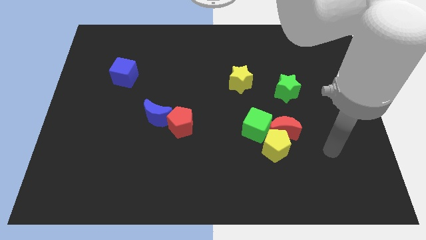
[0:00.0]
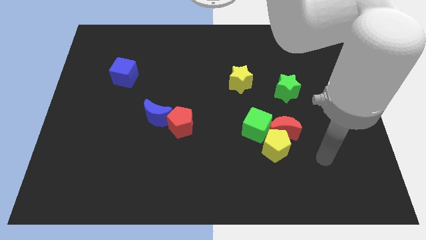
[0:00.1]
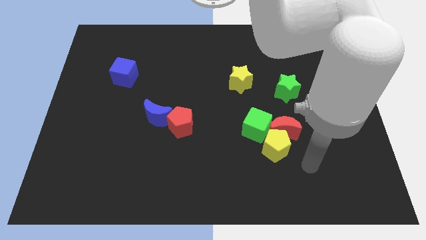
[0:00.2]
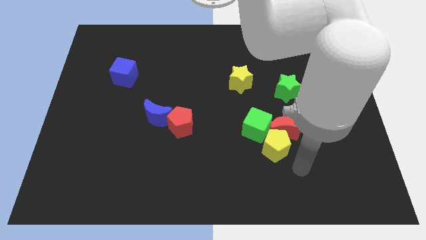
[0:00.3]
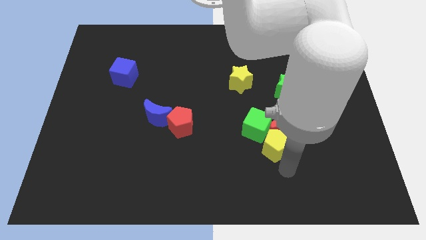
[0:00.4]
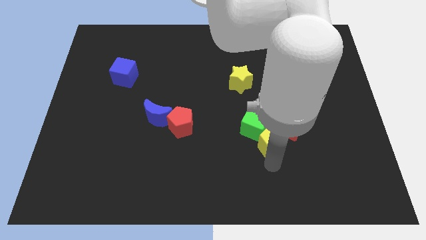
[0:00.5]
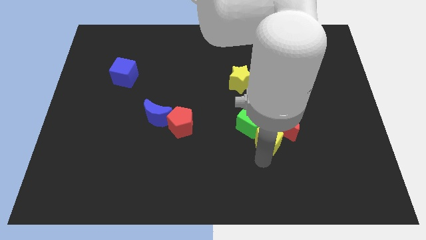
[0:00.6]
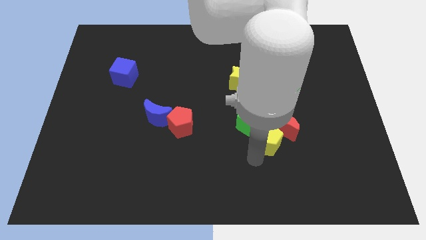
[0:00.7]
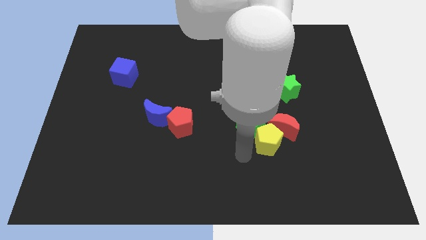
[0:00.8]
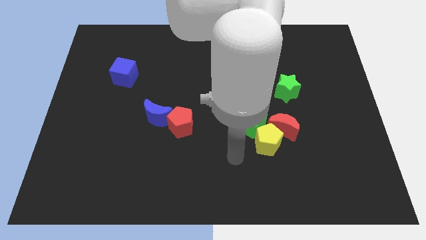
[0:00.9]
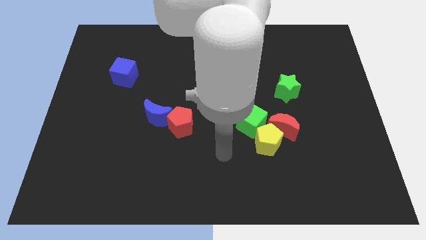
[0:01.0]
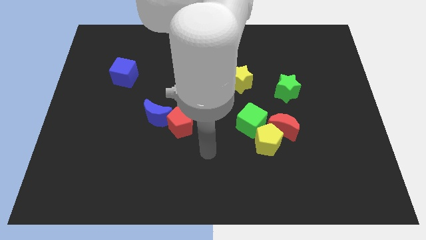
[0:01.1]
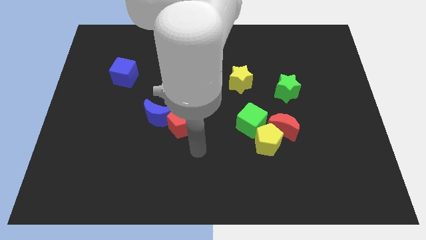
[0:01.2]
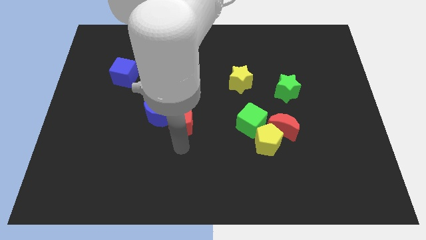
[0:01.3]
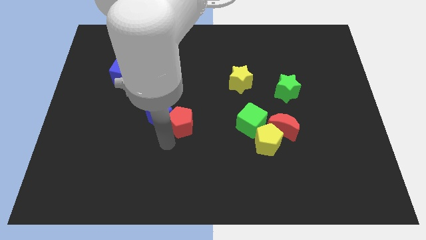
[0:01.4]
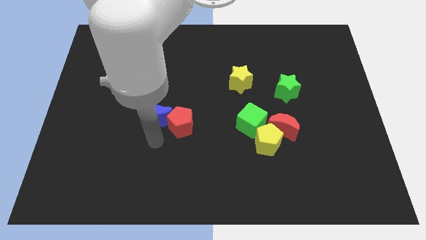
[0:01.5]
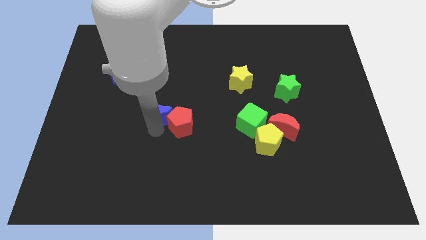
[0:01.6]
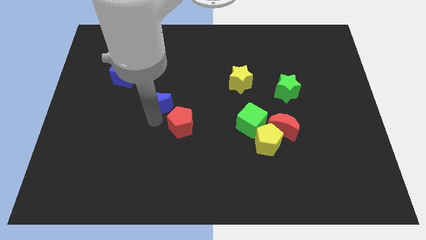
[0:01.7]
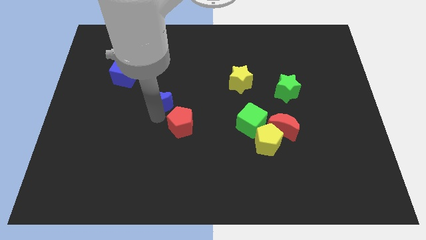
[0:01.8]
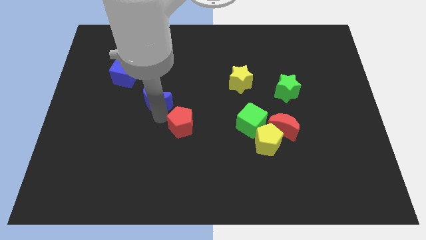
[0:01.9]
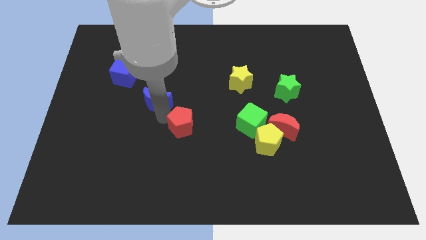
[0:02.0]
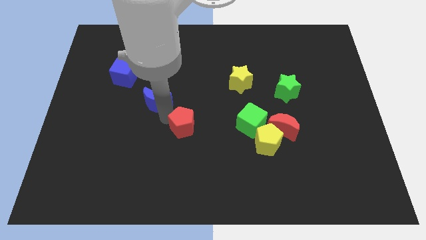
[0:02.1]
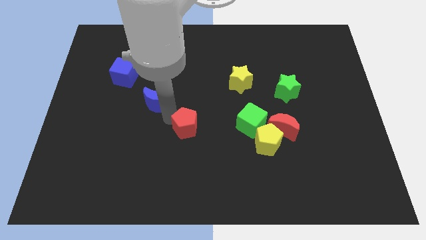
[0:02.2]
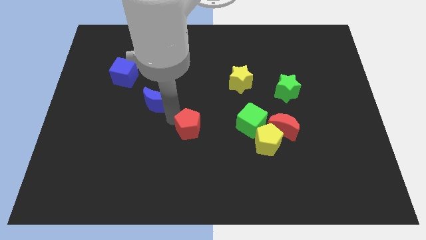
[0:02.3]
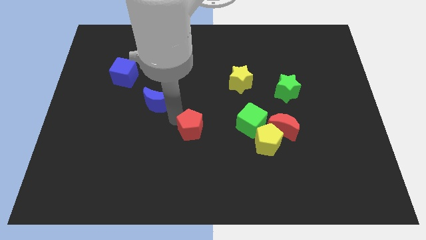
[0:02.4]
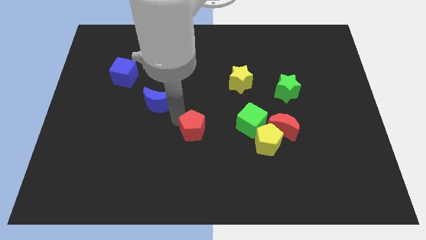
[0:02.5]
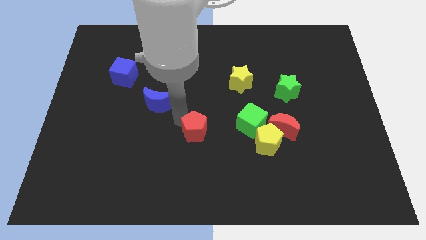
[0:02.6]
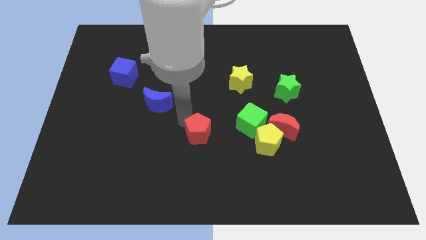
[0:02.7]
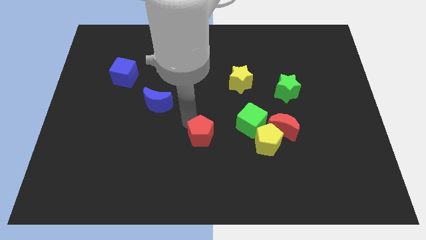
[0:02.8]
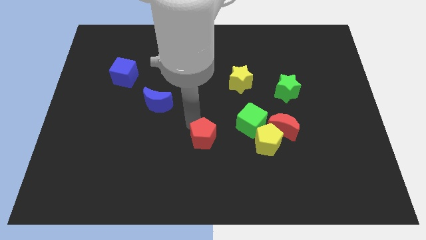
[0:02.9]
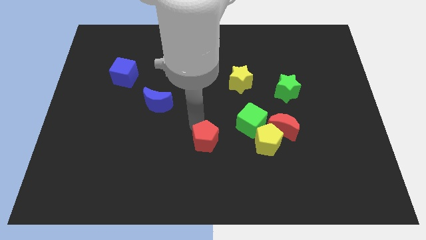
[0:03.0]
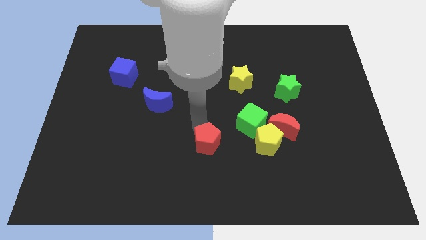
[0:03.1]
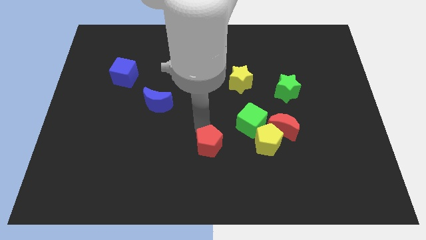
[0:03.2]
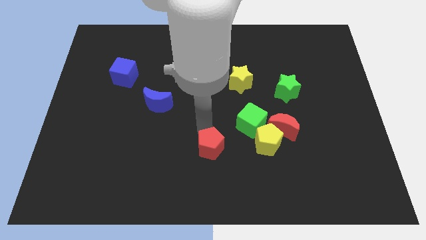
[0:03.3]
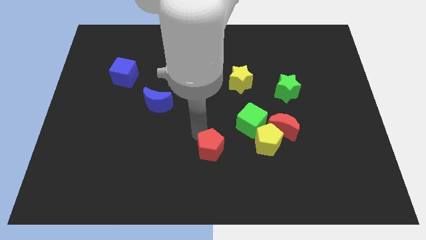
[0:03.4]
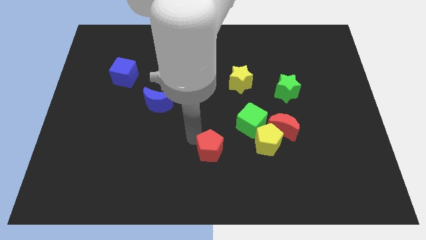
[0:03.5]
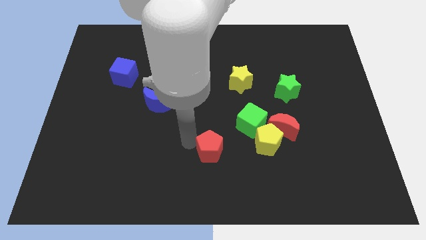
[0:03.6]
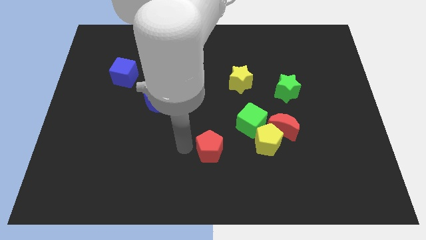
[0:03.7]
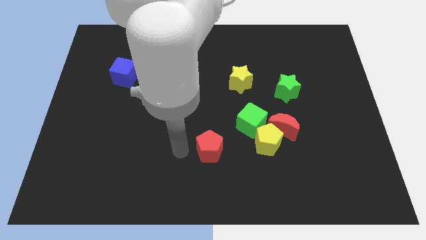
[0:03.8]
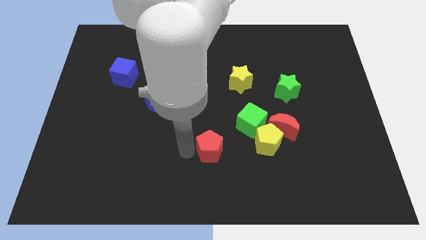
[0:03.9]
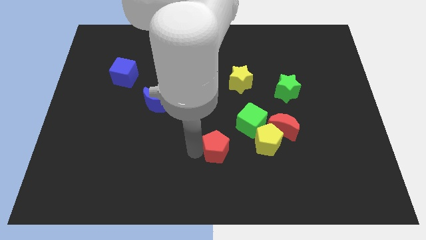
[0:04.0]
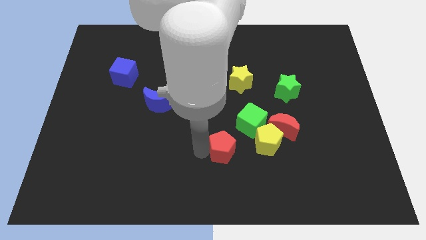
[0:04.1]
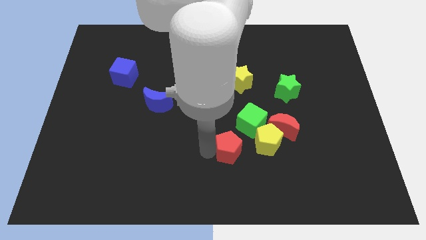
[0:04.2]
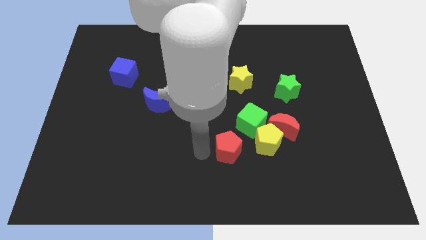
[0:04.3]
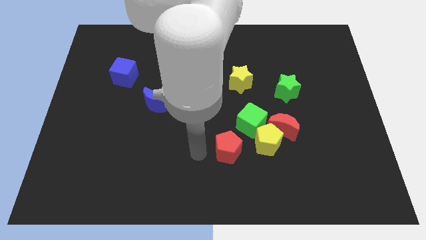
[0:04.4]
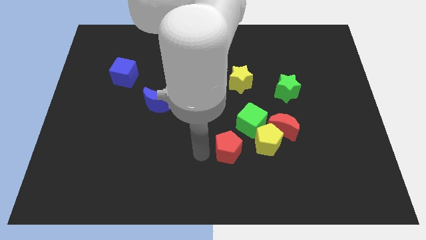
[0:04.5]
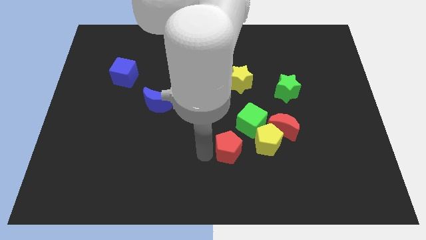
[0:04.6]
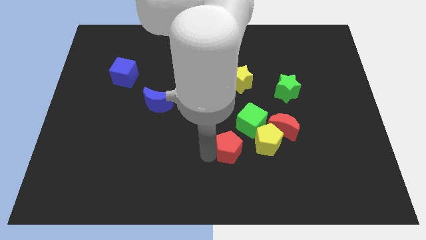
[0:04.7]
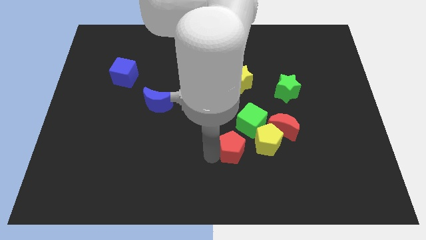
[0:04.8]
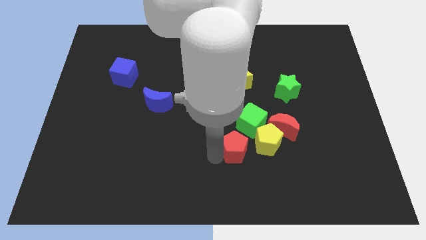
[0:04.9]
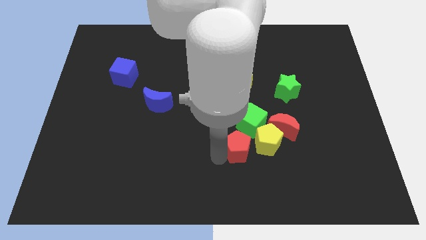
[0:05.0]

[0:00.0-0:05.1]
slide the red pentagon to the bottom left side of the red moon

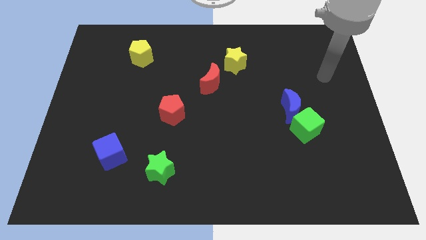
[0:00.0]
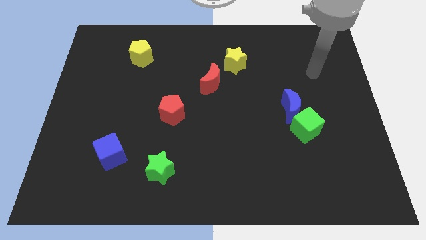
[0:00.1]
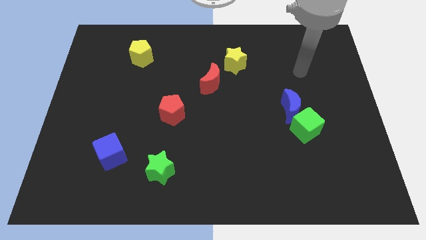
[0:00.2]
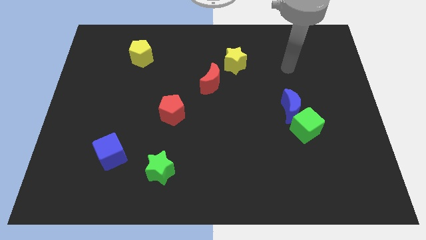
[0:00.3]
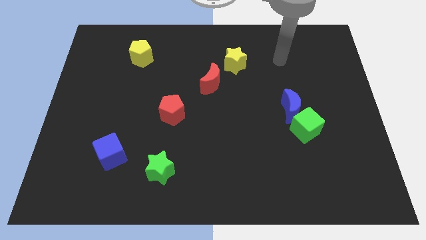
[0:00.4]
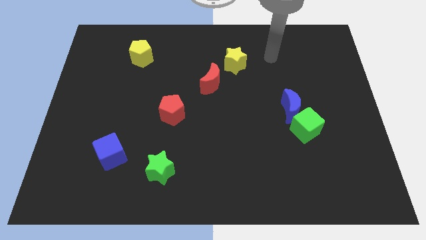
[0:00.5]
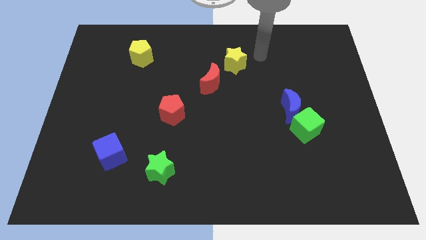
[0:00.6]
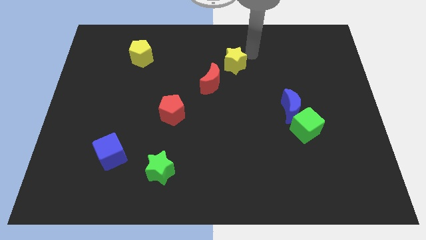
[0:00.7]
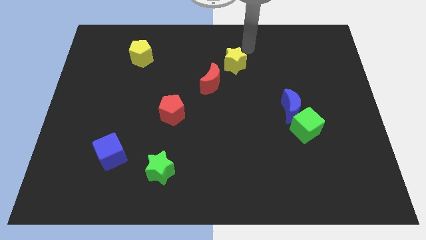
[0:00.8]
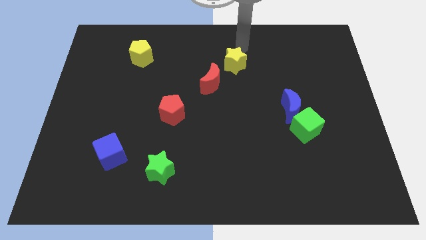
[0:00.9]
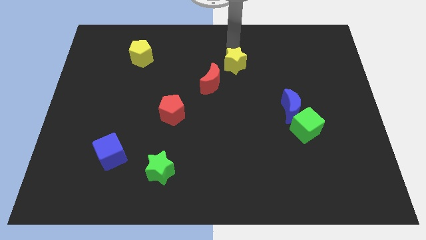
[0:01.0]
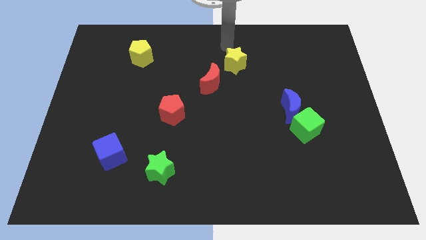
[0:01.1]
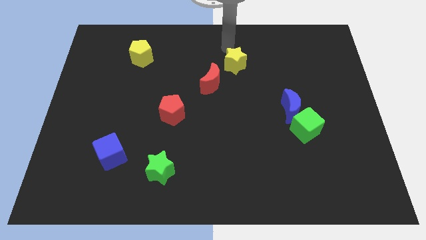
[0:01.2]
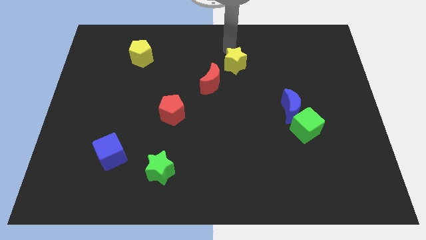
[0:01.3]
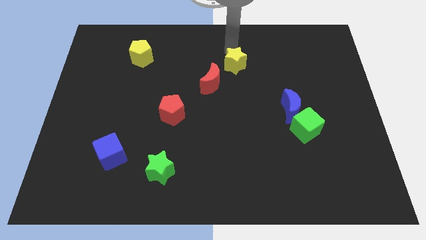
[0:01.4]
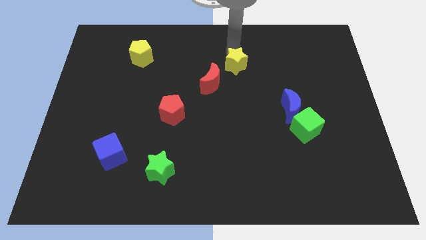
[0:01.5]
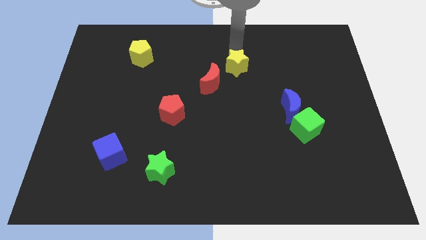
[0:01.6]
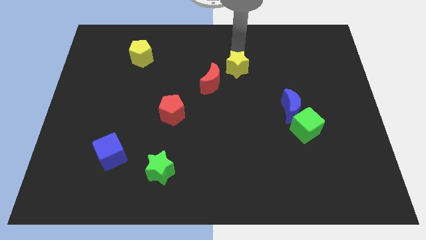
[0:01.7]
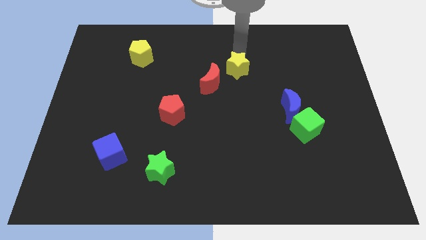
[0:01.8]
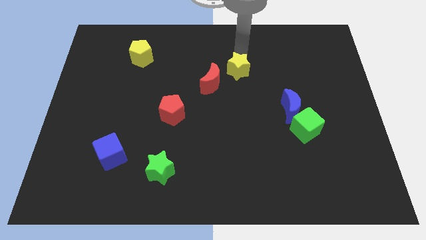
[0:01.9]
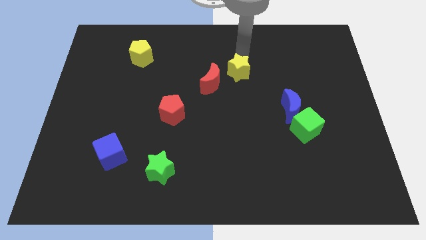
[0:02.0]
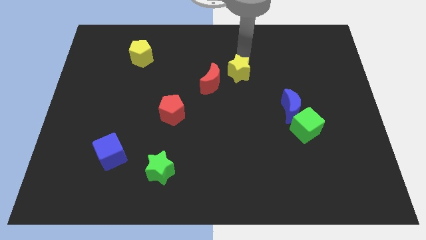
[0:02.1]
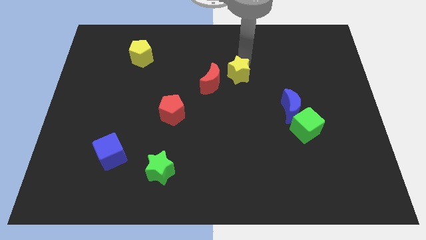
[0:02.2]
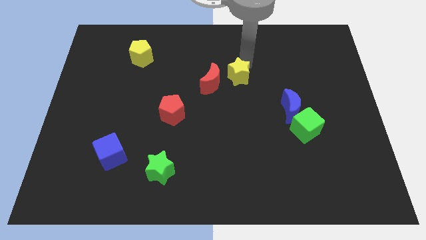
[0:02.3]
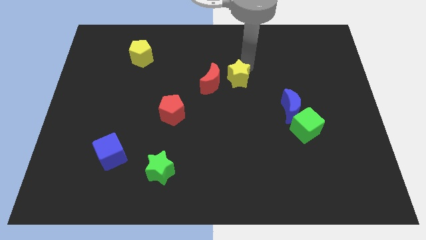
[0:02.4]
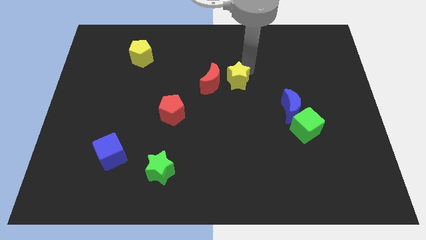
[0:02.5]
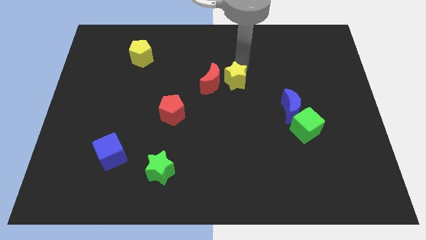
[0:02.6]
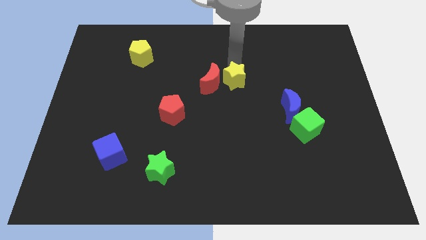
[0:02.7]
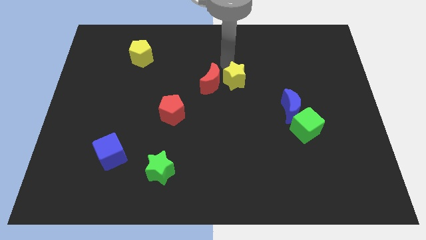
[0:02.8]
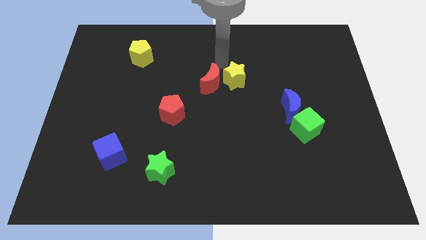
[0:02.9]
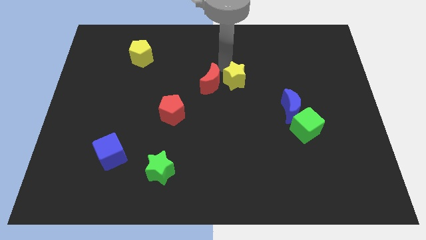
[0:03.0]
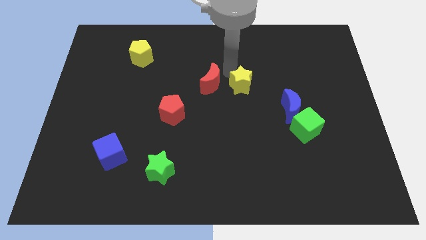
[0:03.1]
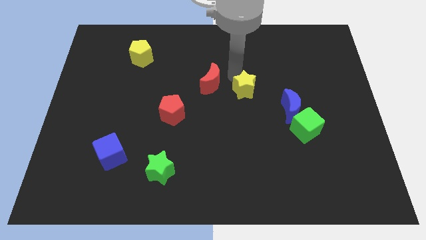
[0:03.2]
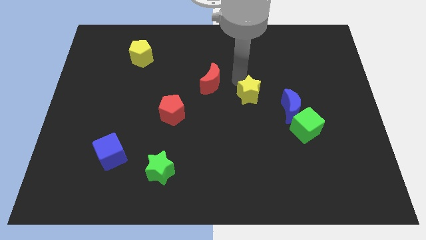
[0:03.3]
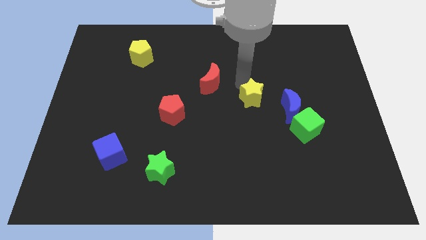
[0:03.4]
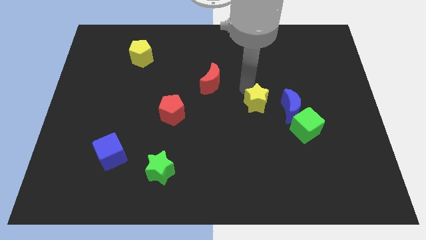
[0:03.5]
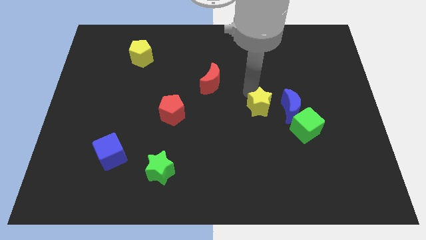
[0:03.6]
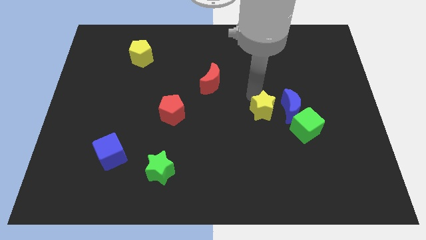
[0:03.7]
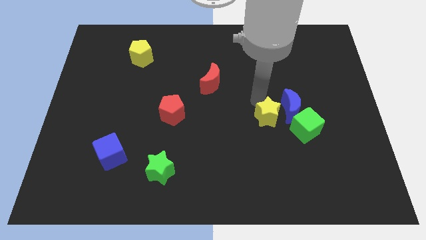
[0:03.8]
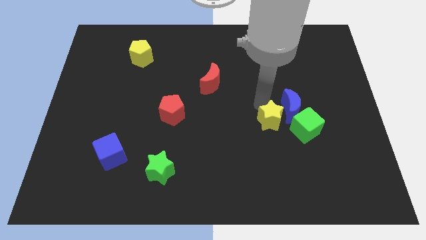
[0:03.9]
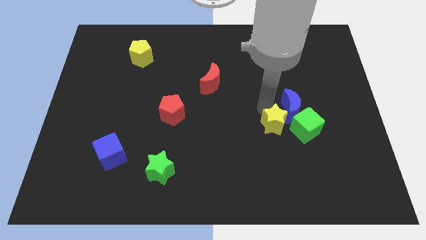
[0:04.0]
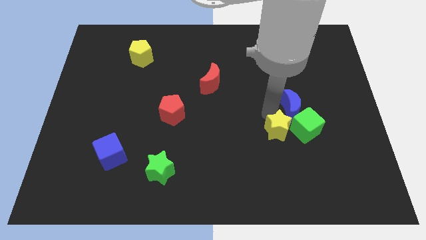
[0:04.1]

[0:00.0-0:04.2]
move the yellow star to the bottom left of the green cube
